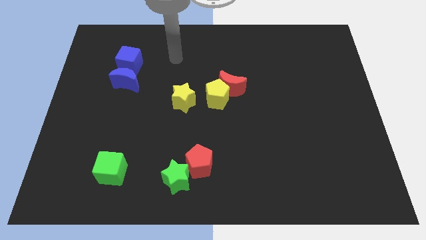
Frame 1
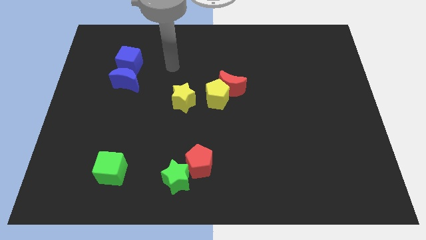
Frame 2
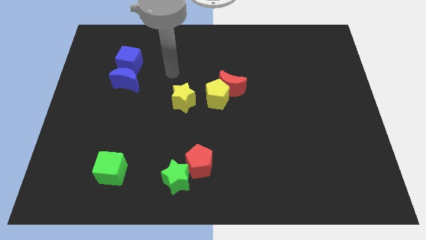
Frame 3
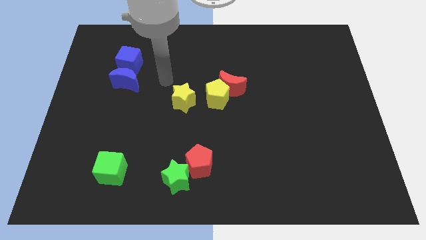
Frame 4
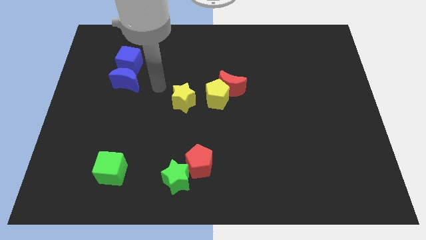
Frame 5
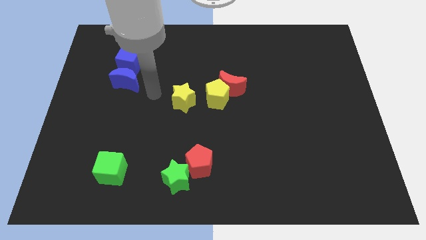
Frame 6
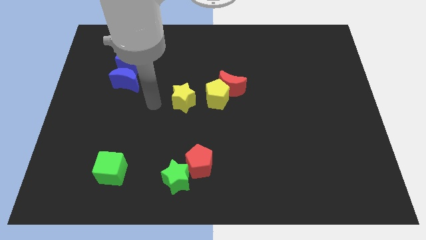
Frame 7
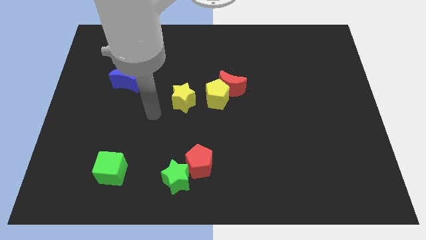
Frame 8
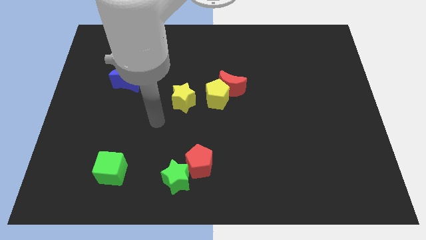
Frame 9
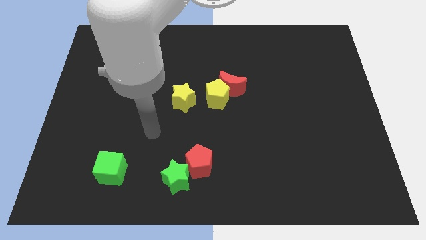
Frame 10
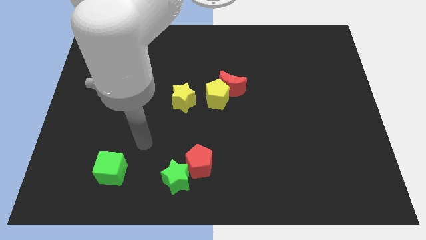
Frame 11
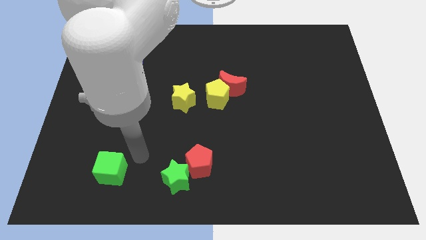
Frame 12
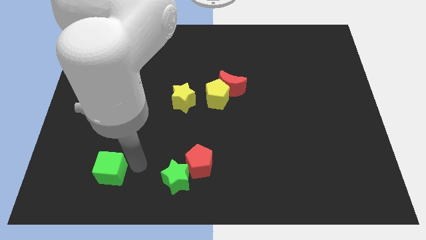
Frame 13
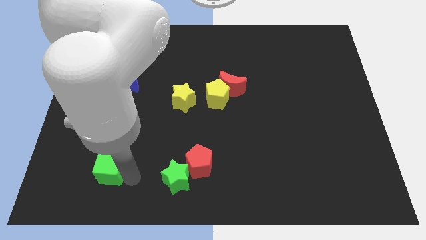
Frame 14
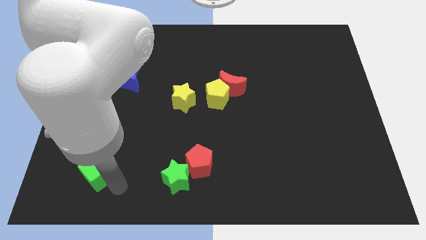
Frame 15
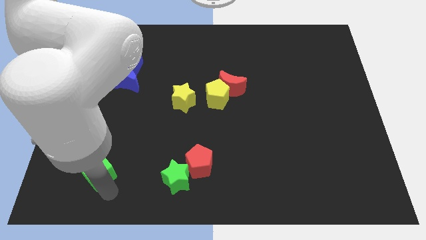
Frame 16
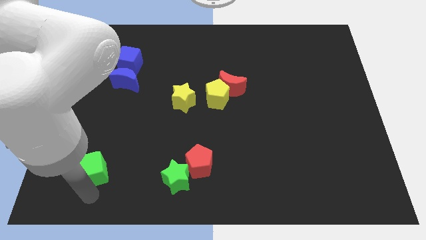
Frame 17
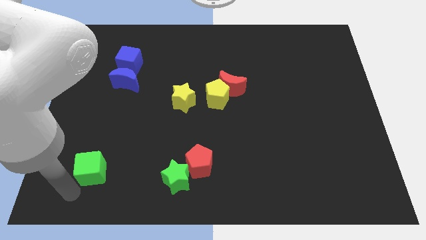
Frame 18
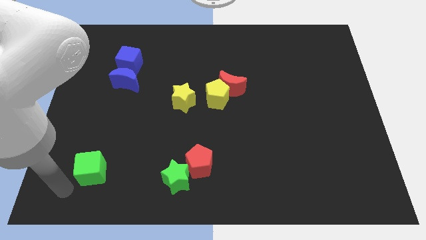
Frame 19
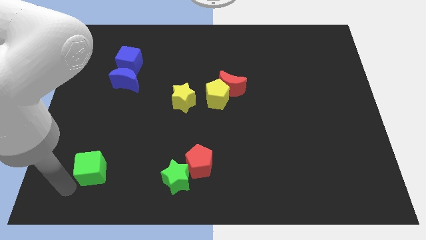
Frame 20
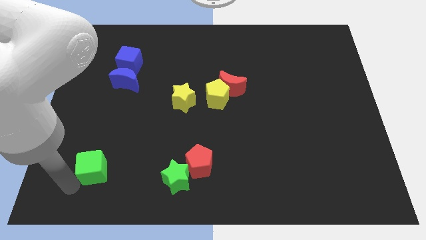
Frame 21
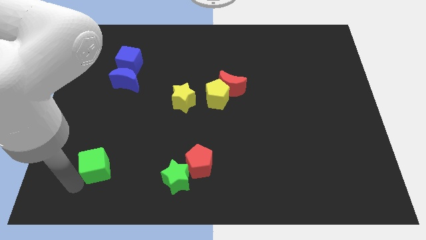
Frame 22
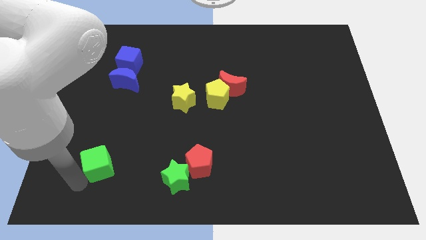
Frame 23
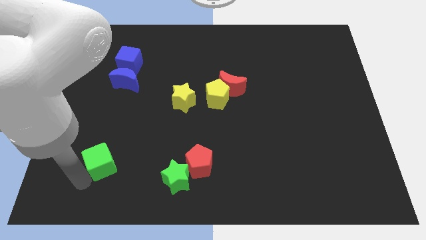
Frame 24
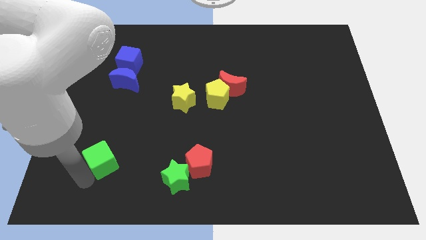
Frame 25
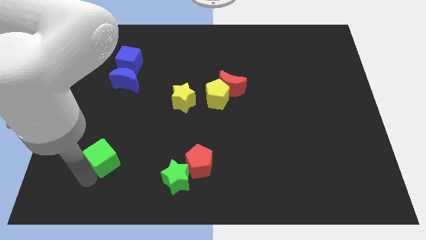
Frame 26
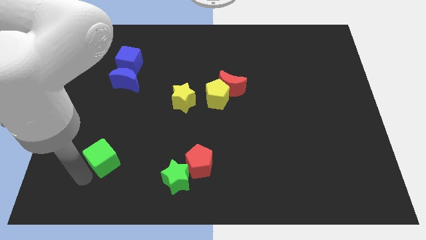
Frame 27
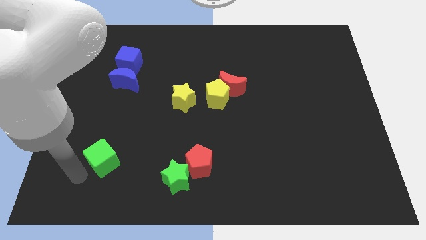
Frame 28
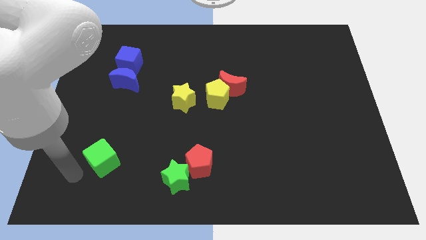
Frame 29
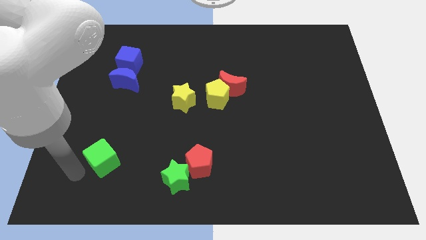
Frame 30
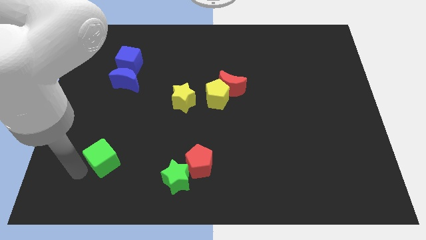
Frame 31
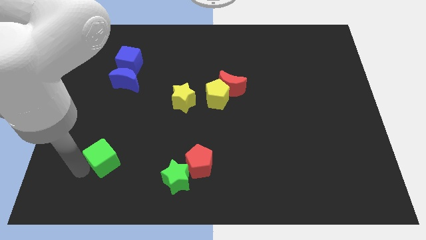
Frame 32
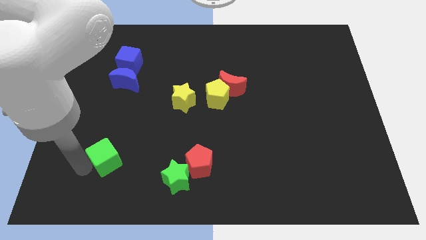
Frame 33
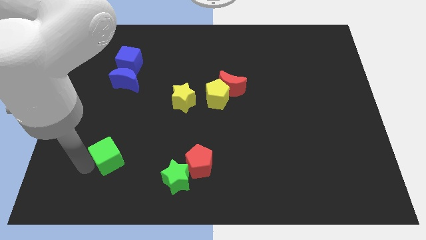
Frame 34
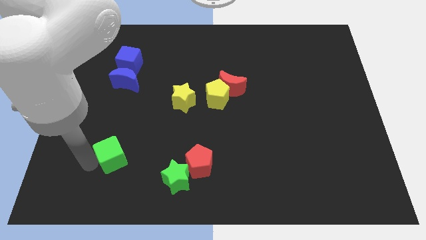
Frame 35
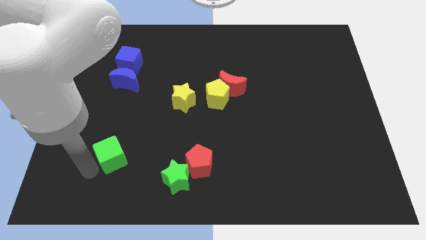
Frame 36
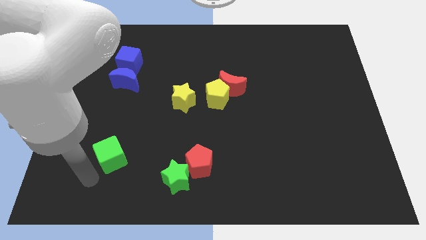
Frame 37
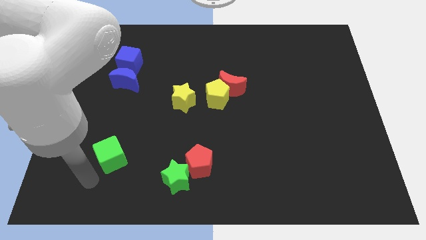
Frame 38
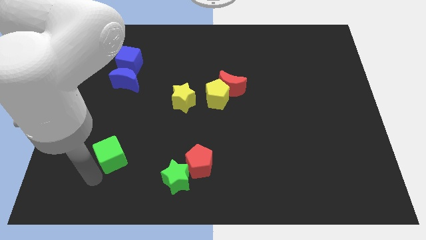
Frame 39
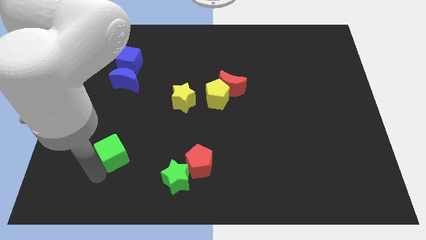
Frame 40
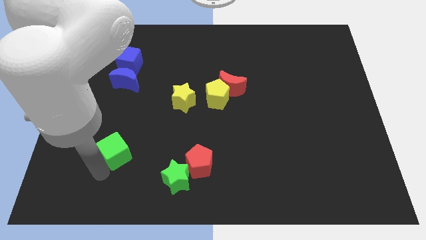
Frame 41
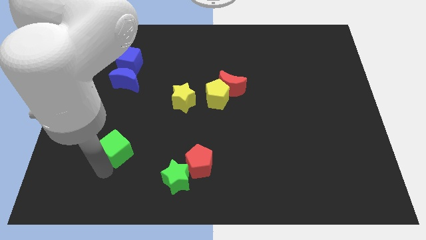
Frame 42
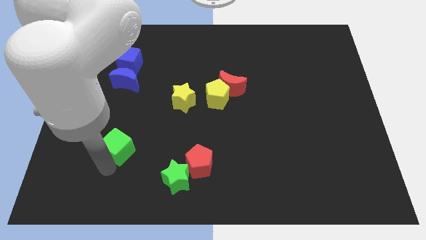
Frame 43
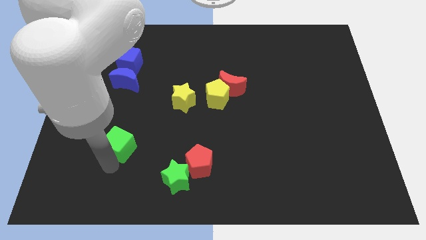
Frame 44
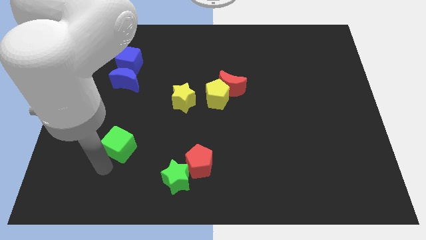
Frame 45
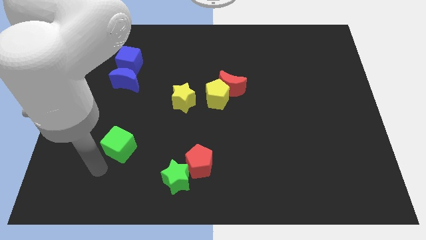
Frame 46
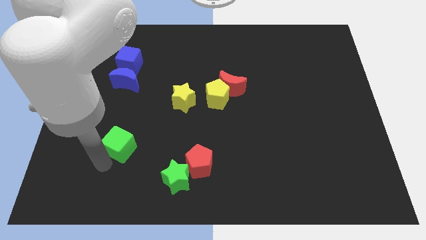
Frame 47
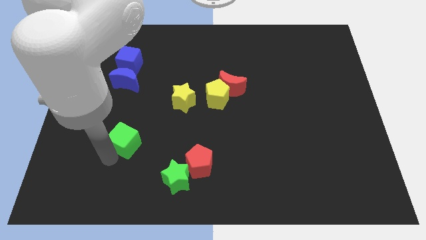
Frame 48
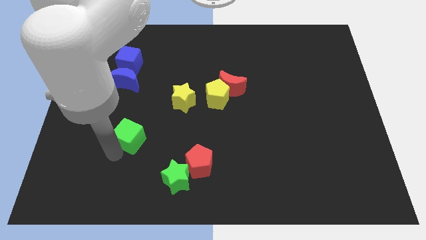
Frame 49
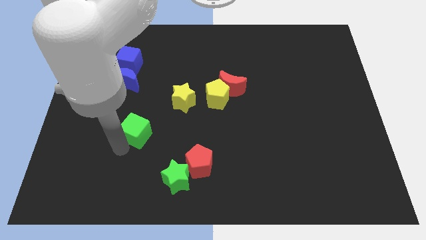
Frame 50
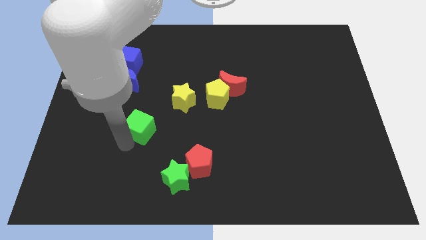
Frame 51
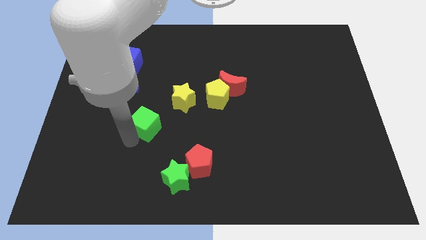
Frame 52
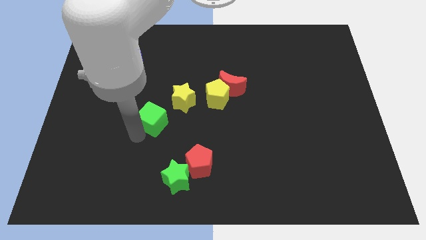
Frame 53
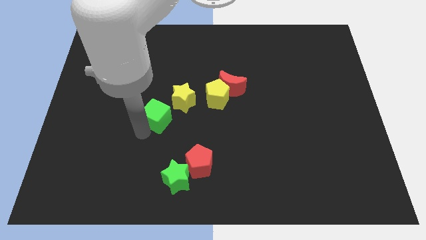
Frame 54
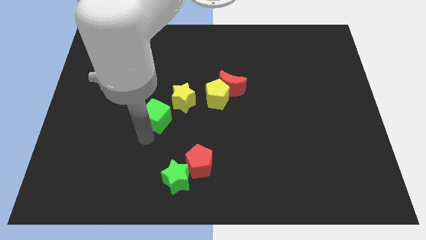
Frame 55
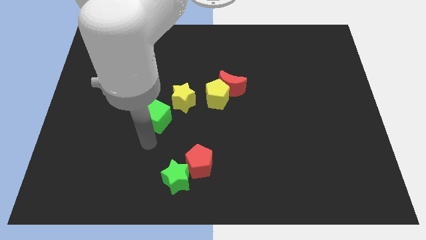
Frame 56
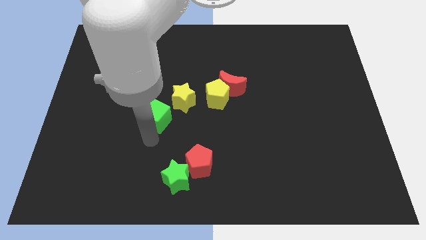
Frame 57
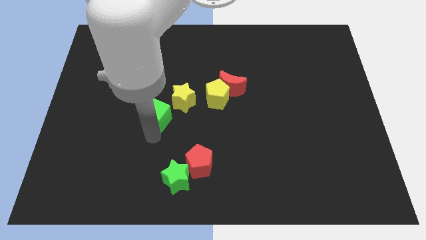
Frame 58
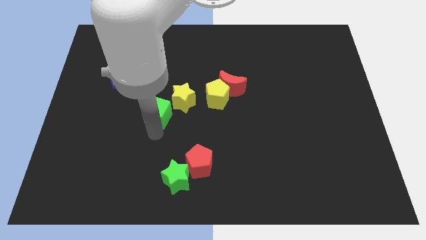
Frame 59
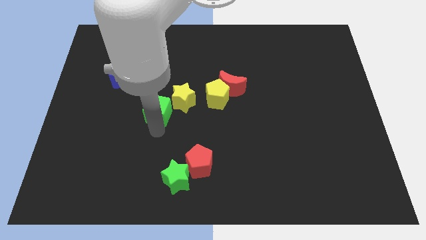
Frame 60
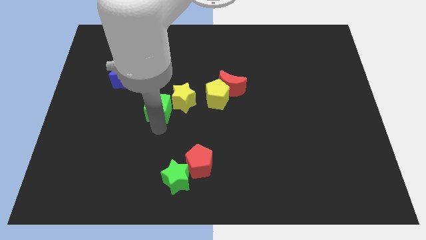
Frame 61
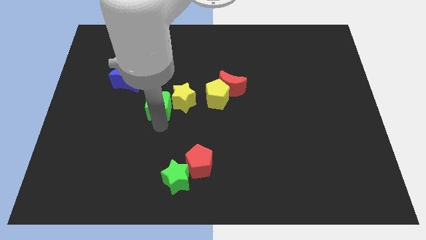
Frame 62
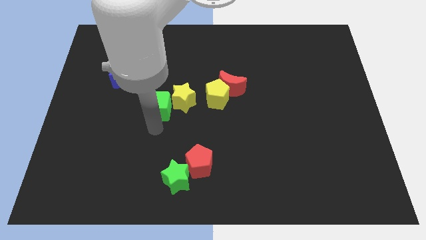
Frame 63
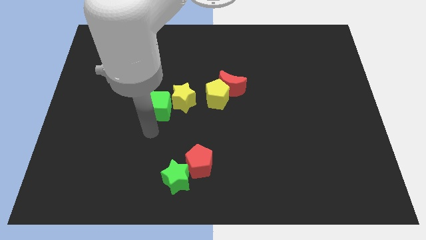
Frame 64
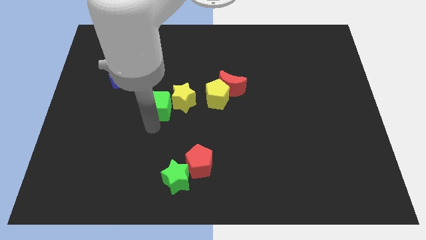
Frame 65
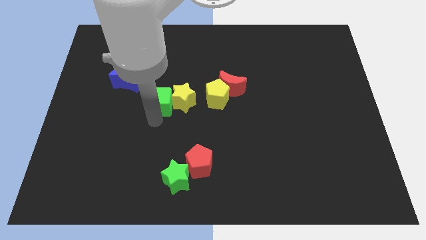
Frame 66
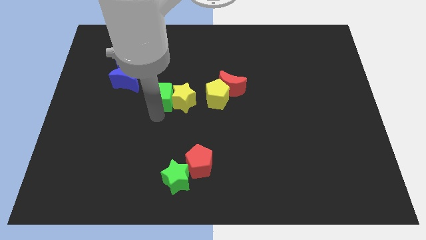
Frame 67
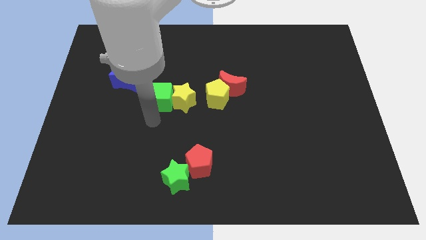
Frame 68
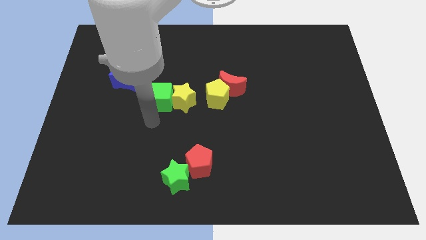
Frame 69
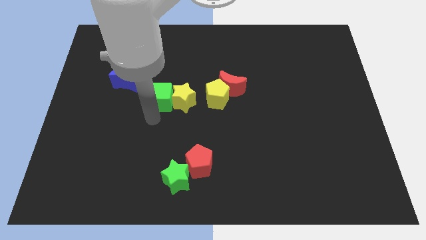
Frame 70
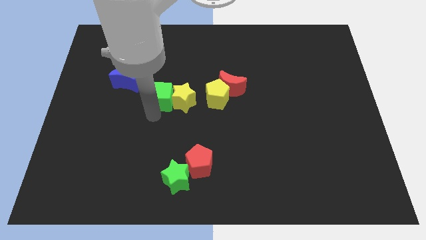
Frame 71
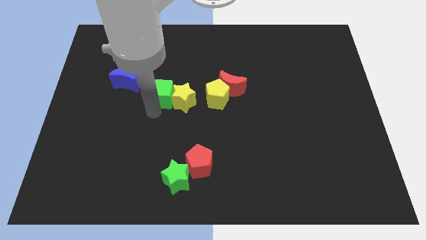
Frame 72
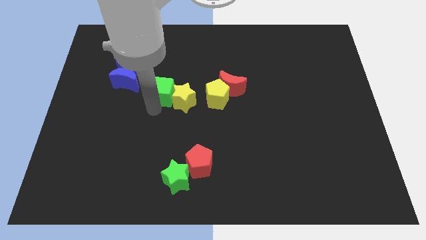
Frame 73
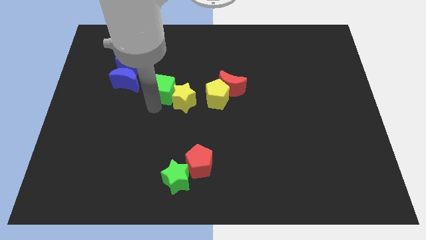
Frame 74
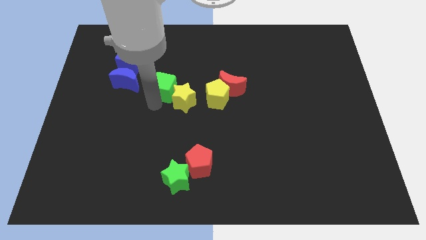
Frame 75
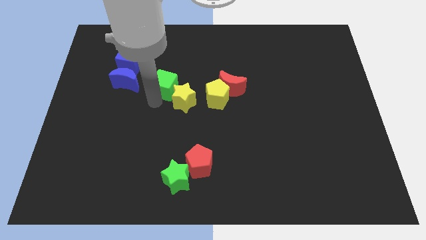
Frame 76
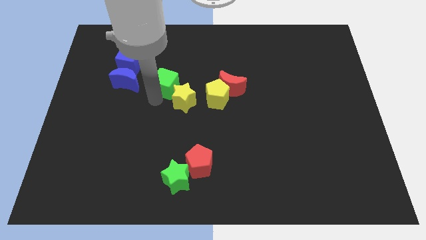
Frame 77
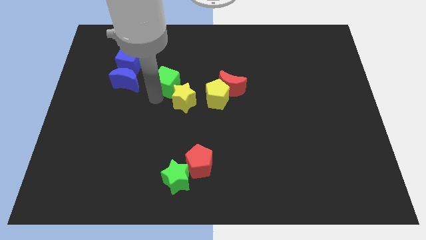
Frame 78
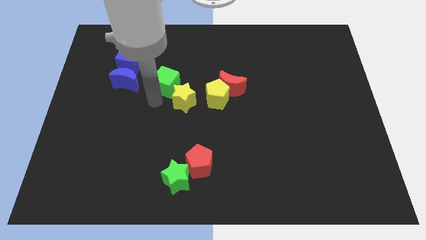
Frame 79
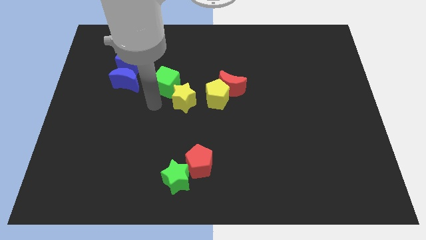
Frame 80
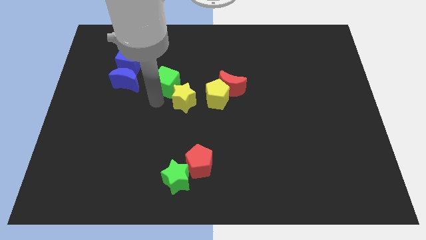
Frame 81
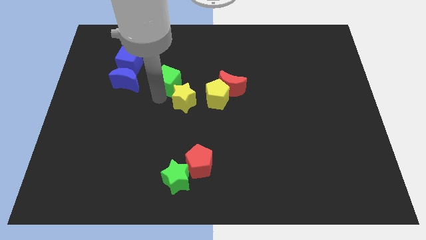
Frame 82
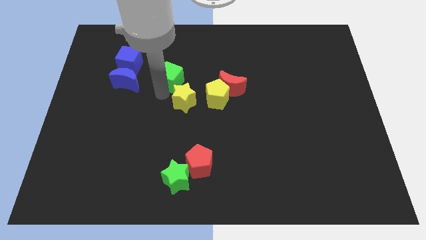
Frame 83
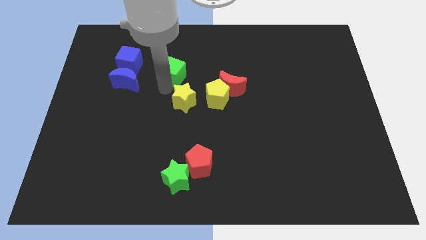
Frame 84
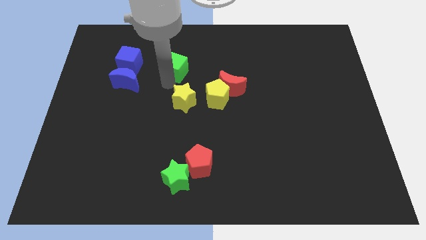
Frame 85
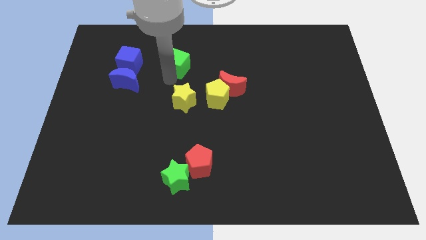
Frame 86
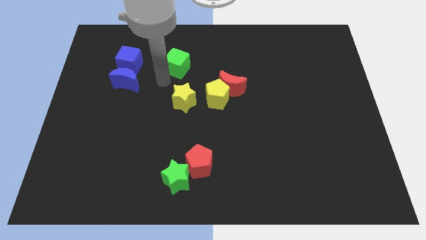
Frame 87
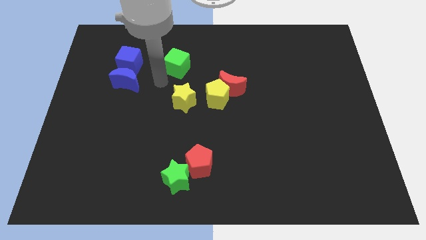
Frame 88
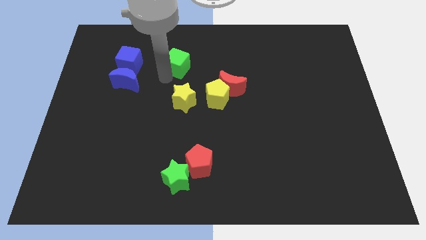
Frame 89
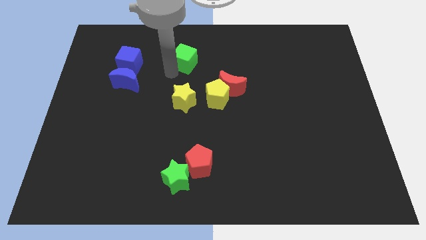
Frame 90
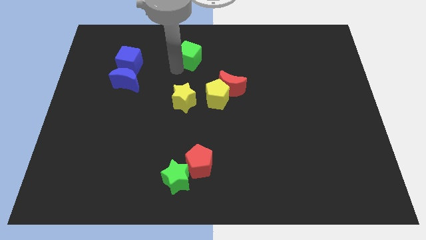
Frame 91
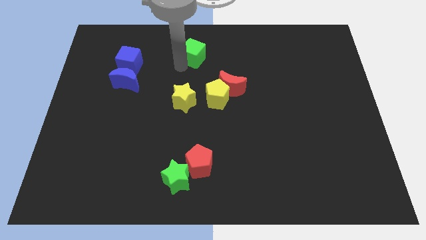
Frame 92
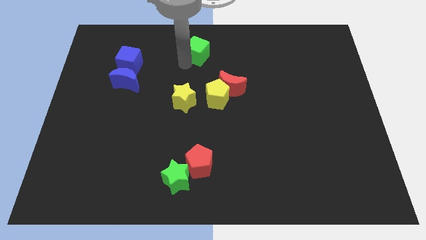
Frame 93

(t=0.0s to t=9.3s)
push the green cube to the top side
